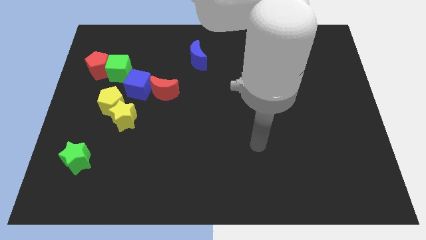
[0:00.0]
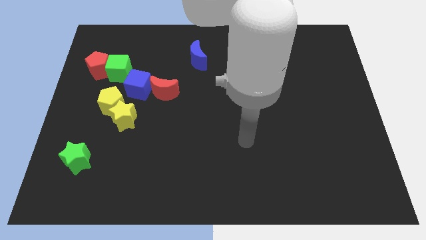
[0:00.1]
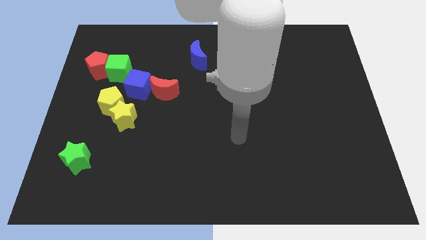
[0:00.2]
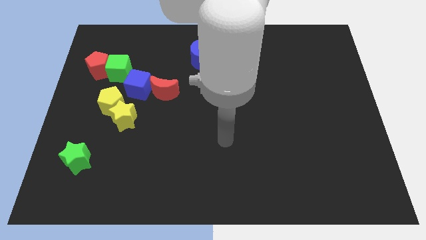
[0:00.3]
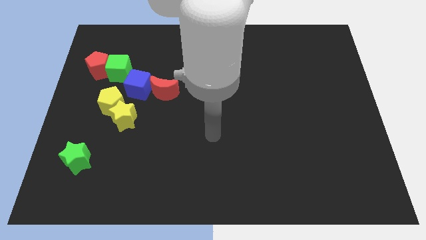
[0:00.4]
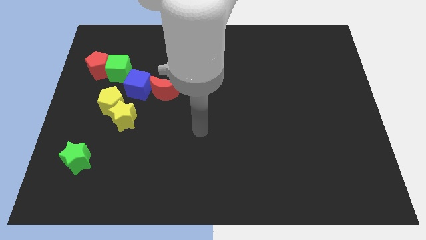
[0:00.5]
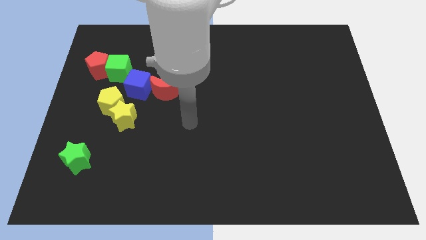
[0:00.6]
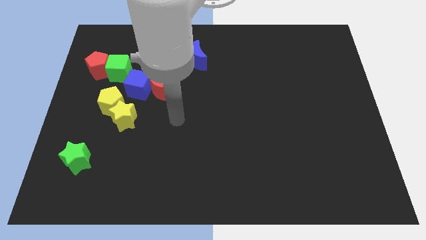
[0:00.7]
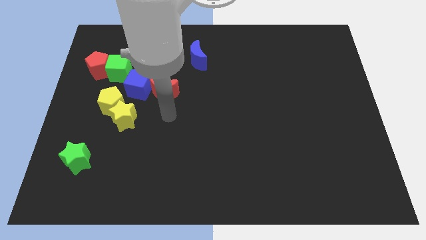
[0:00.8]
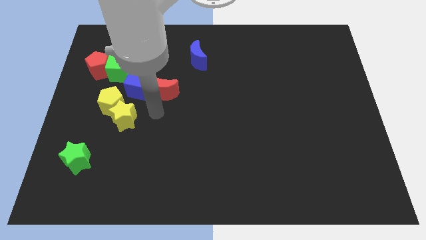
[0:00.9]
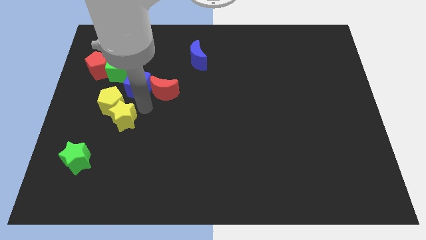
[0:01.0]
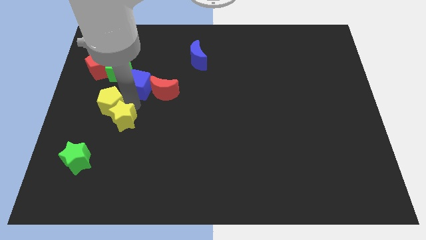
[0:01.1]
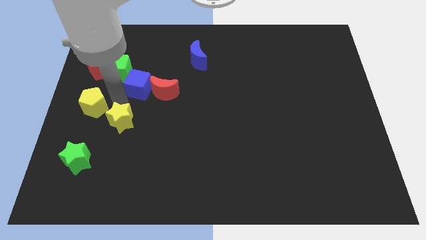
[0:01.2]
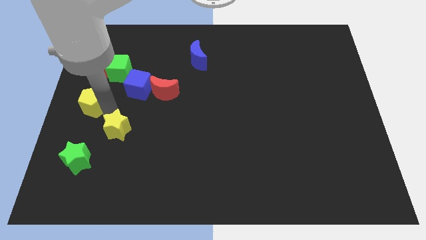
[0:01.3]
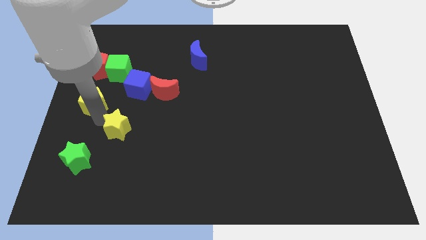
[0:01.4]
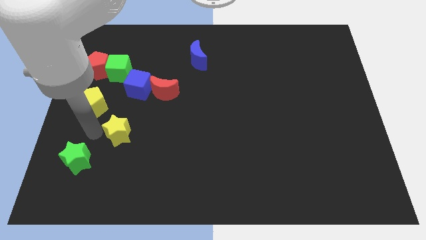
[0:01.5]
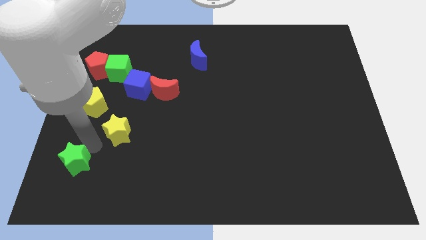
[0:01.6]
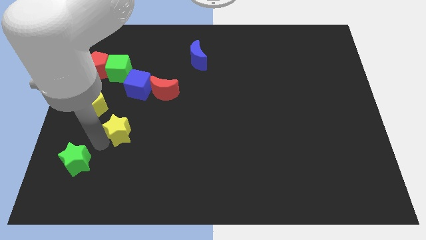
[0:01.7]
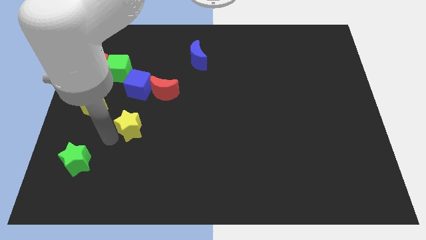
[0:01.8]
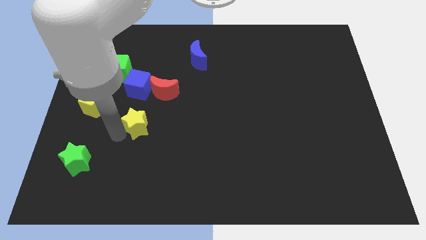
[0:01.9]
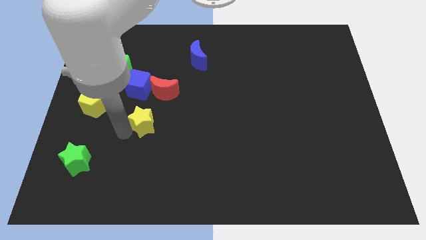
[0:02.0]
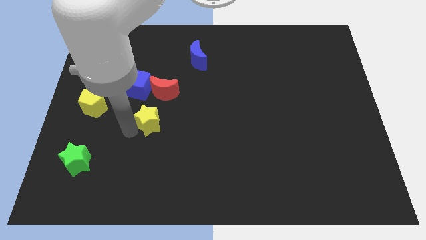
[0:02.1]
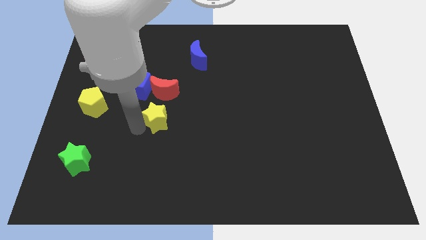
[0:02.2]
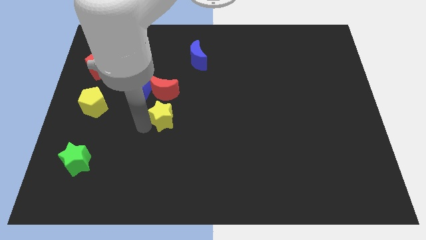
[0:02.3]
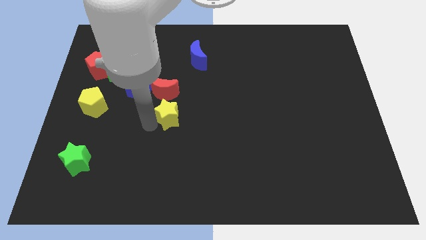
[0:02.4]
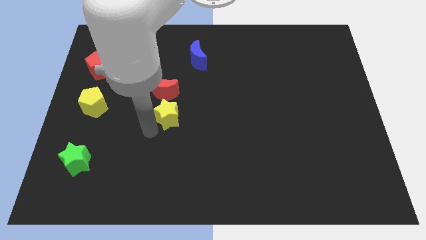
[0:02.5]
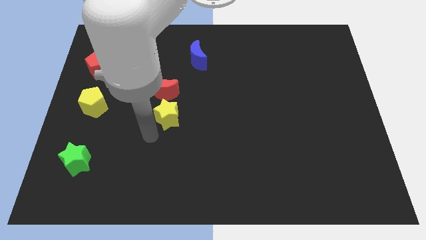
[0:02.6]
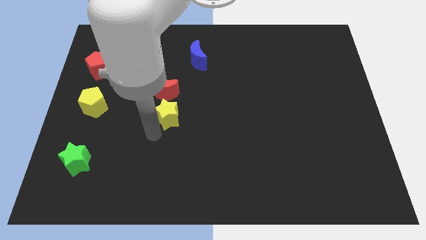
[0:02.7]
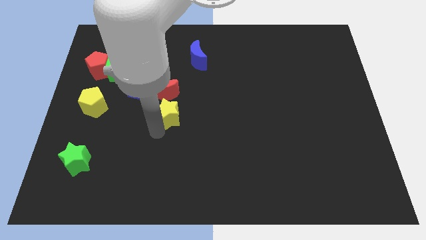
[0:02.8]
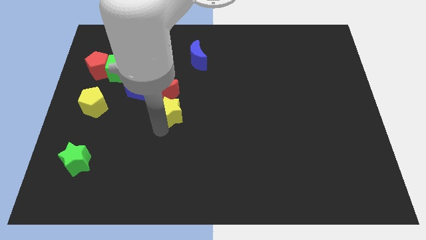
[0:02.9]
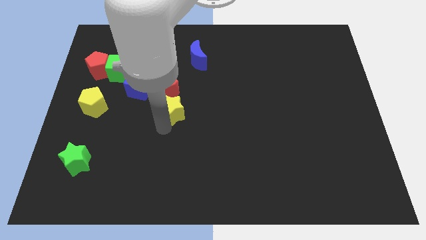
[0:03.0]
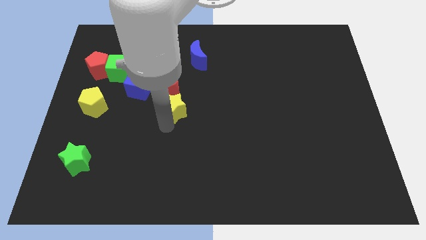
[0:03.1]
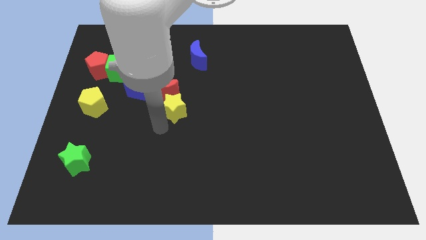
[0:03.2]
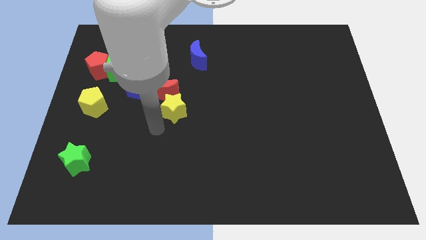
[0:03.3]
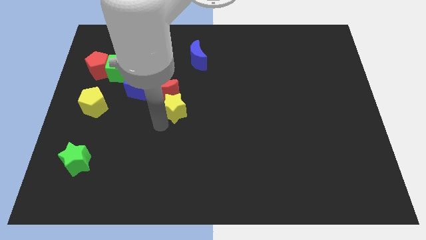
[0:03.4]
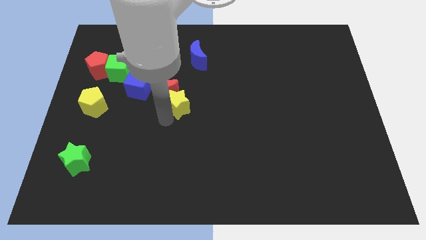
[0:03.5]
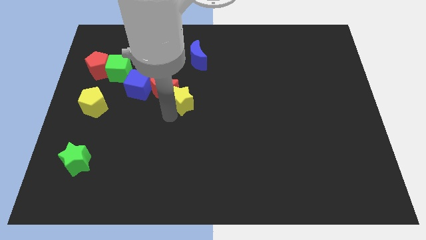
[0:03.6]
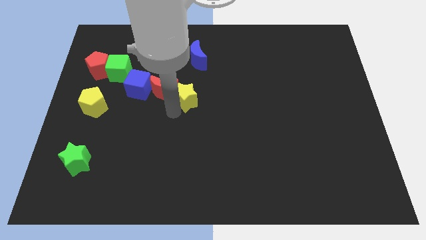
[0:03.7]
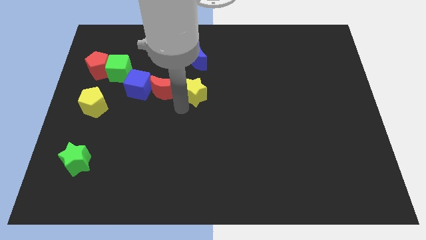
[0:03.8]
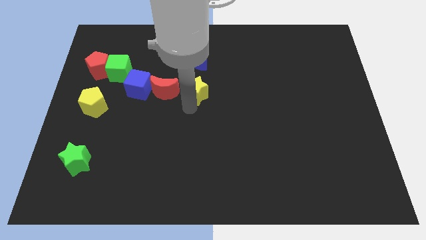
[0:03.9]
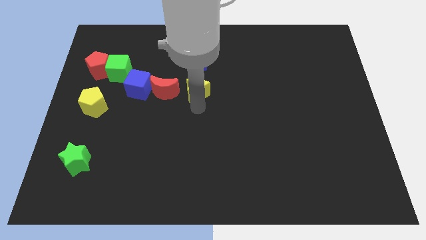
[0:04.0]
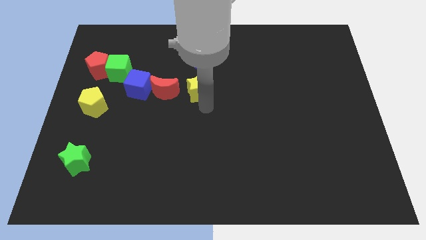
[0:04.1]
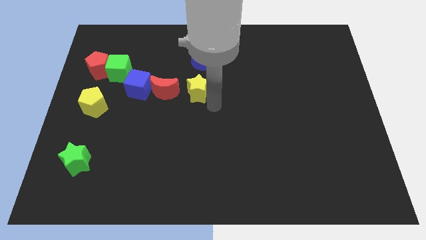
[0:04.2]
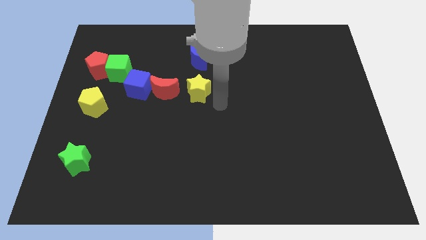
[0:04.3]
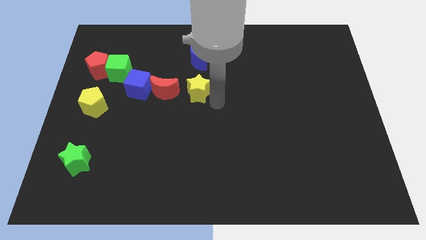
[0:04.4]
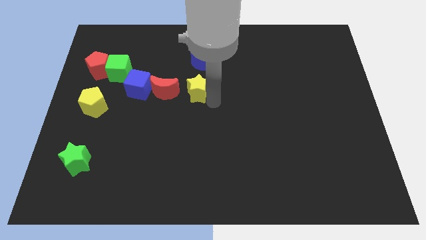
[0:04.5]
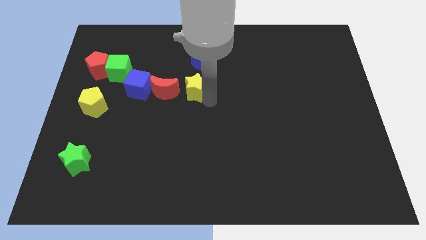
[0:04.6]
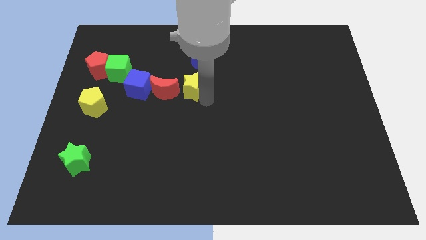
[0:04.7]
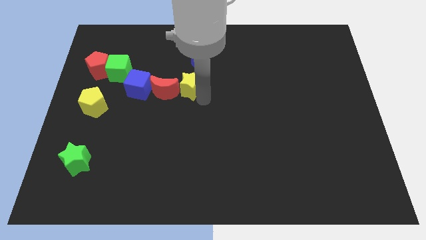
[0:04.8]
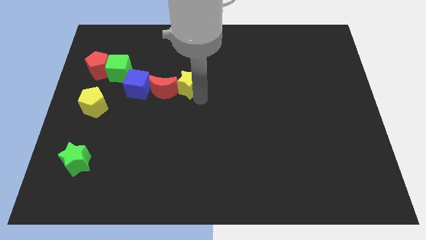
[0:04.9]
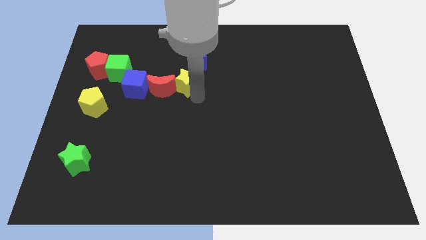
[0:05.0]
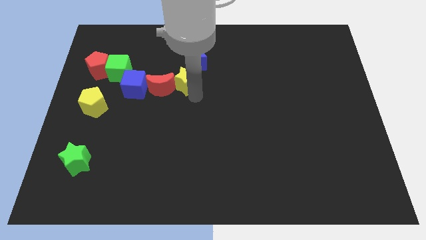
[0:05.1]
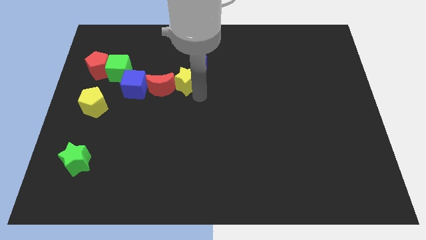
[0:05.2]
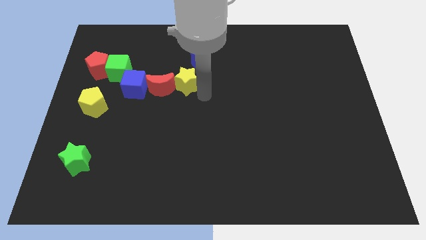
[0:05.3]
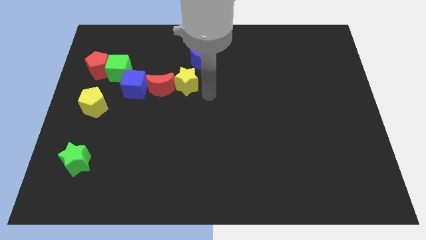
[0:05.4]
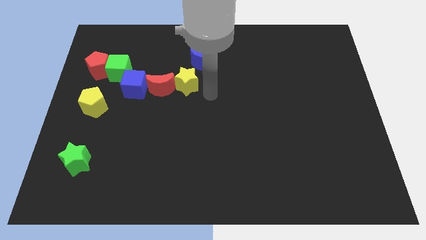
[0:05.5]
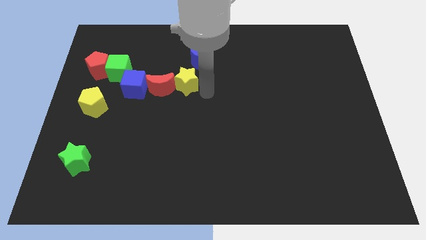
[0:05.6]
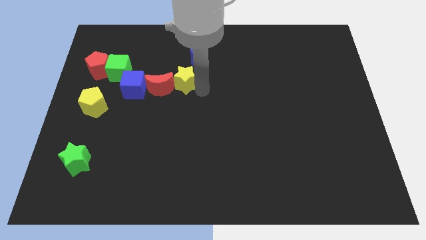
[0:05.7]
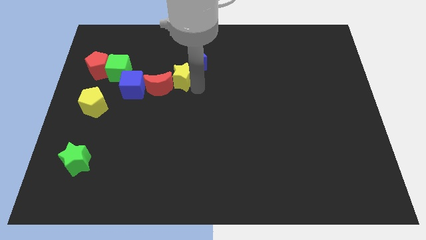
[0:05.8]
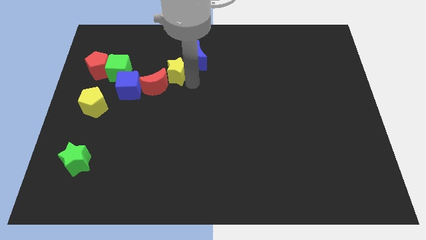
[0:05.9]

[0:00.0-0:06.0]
slightly push the yellow star upwards

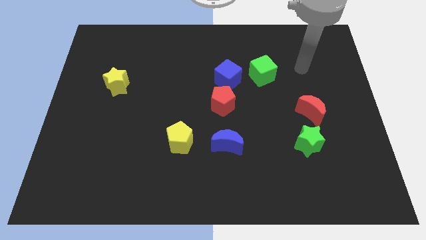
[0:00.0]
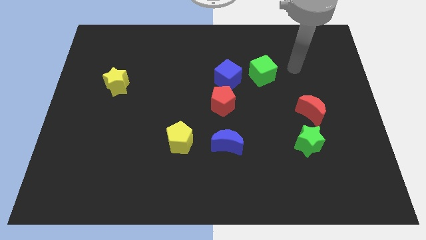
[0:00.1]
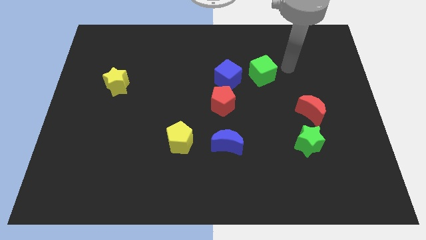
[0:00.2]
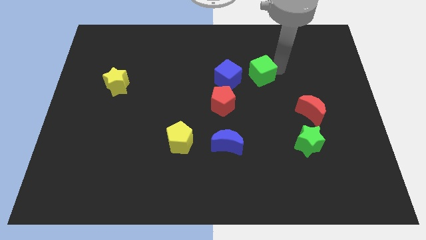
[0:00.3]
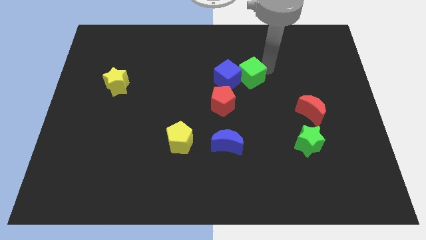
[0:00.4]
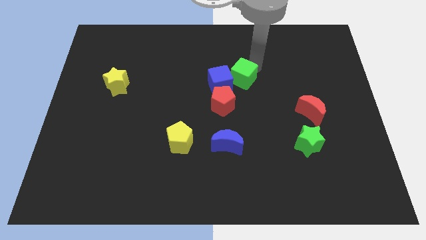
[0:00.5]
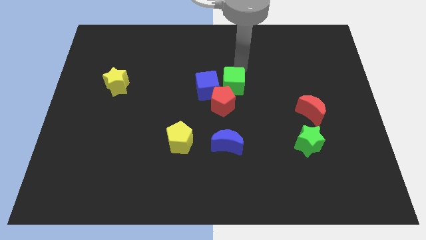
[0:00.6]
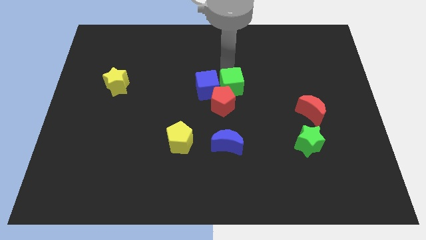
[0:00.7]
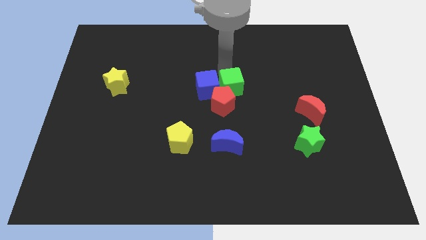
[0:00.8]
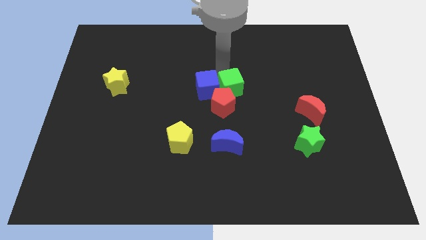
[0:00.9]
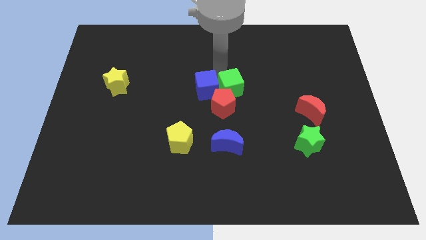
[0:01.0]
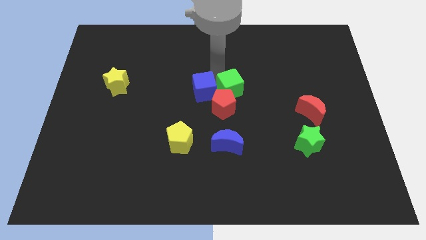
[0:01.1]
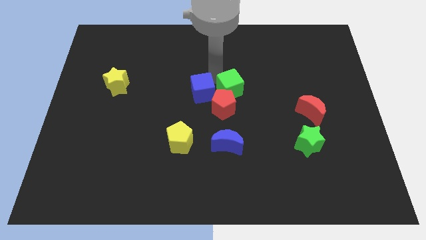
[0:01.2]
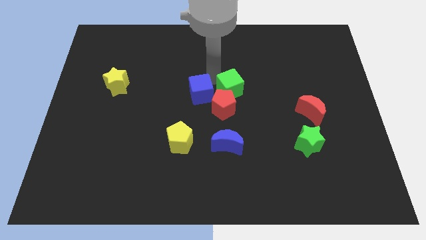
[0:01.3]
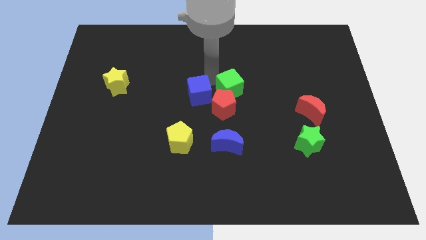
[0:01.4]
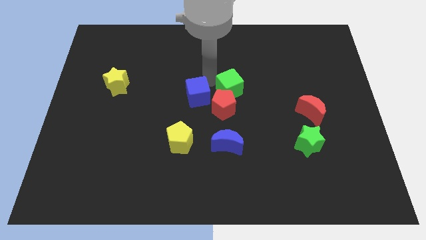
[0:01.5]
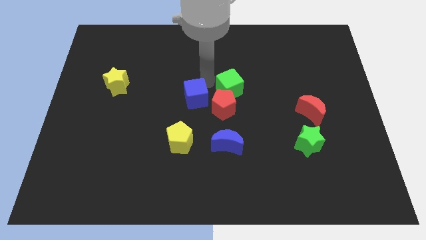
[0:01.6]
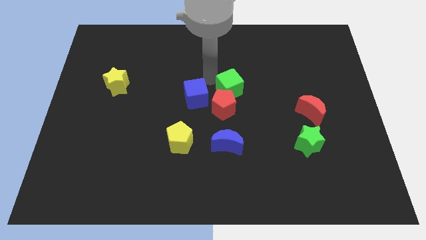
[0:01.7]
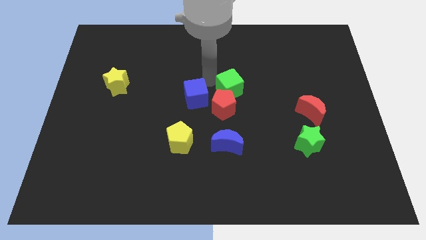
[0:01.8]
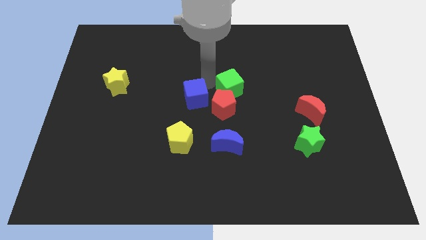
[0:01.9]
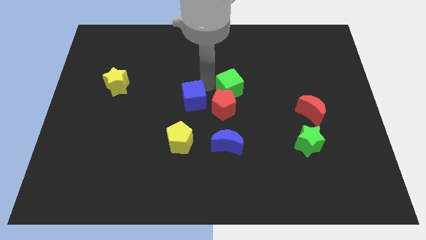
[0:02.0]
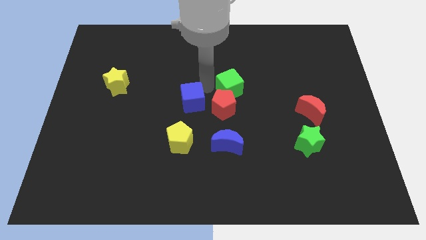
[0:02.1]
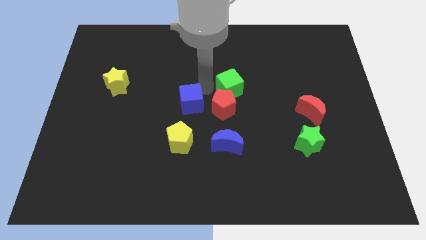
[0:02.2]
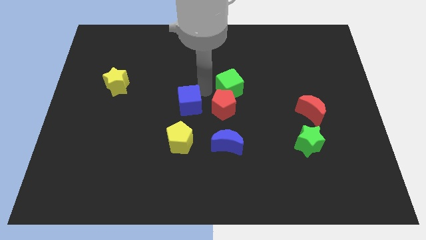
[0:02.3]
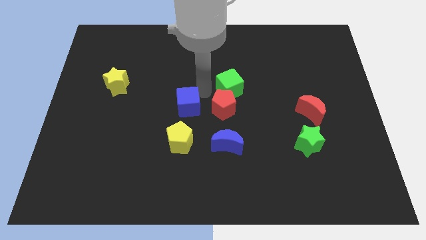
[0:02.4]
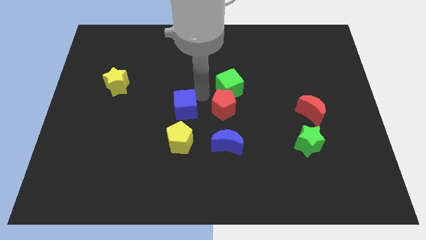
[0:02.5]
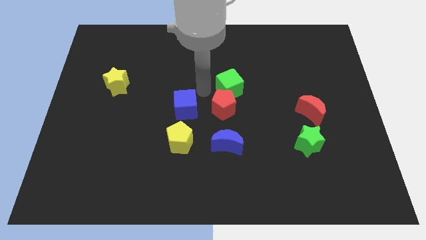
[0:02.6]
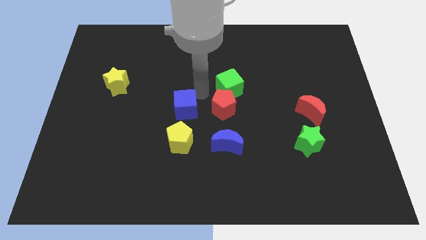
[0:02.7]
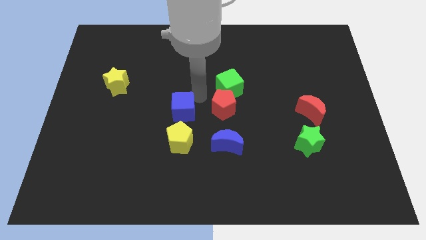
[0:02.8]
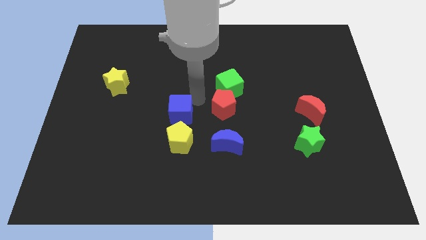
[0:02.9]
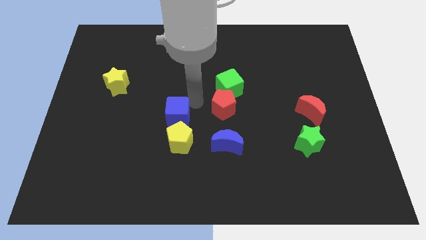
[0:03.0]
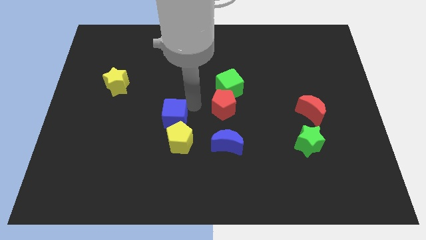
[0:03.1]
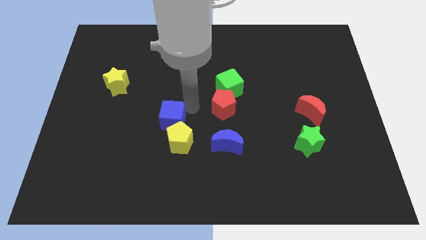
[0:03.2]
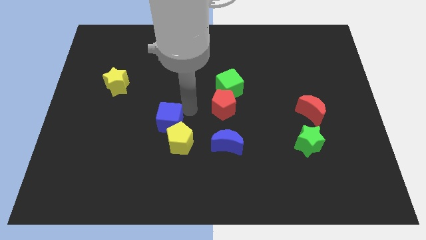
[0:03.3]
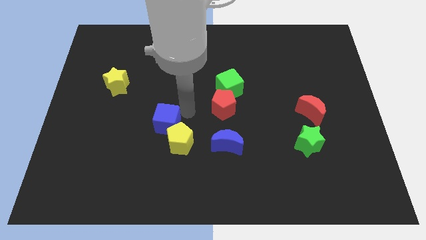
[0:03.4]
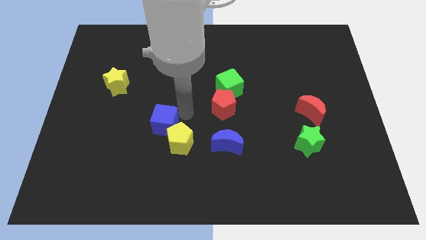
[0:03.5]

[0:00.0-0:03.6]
push the blue cube downwards and then to the left
